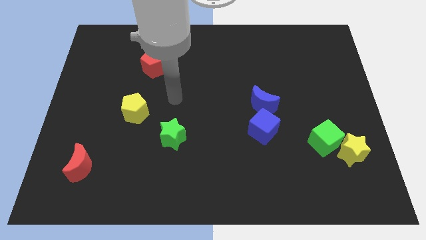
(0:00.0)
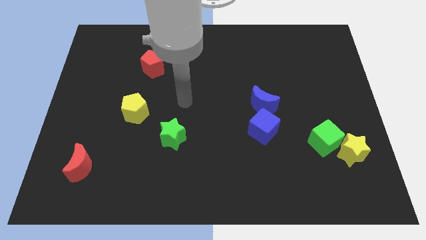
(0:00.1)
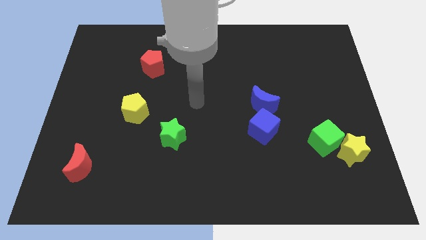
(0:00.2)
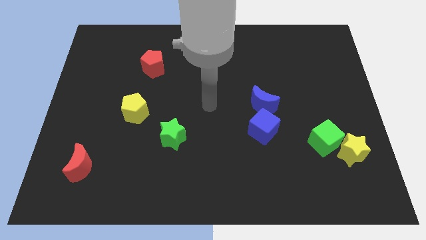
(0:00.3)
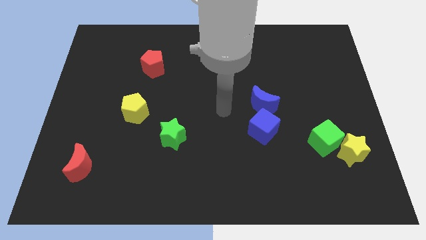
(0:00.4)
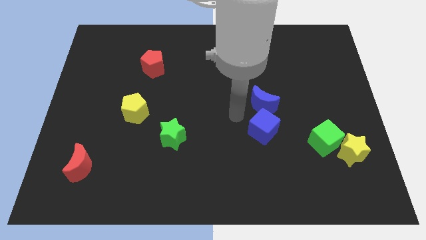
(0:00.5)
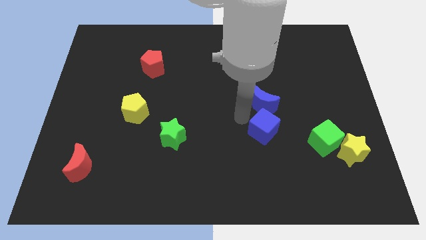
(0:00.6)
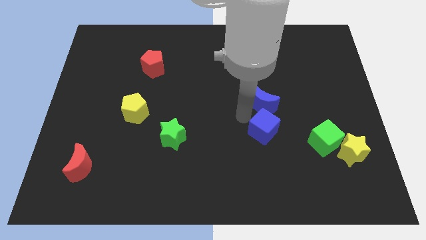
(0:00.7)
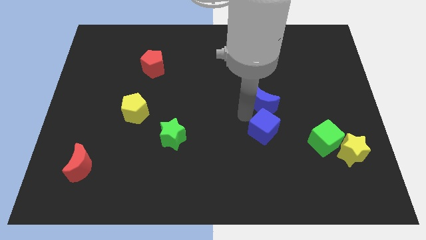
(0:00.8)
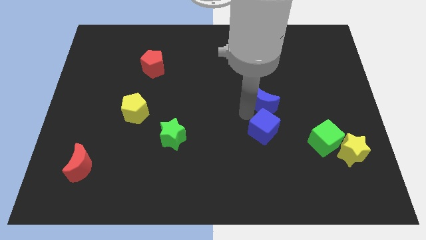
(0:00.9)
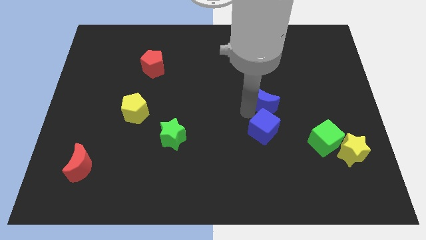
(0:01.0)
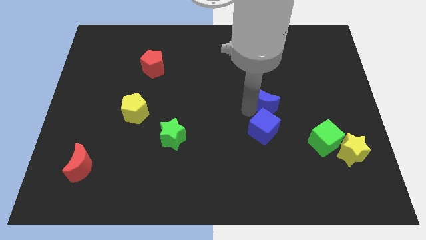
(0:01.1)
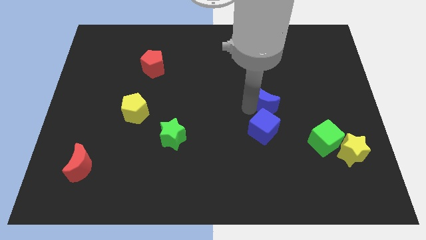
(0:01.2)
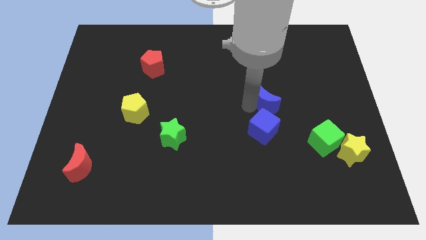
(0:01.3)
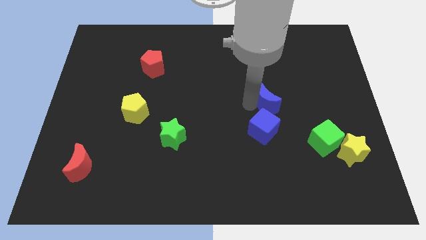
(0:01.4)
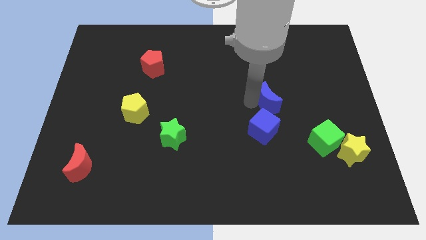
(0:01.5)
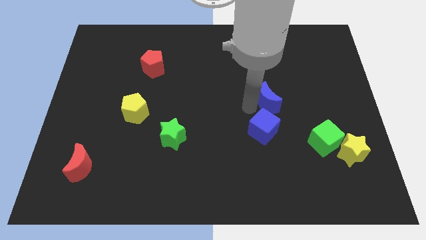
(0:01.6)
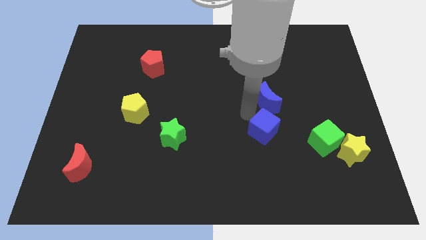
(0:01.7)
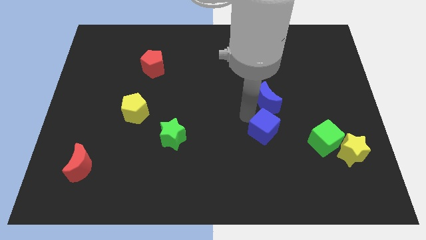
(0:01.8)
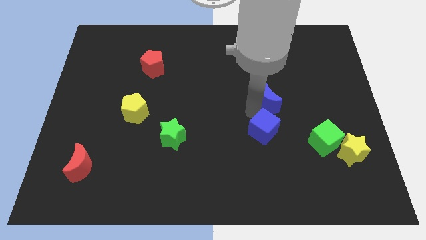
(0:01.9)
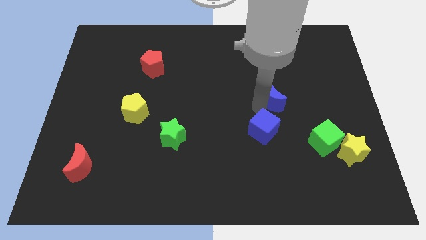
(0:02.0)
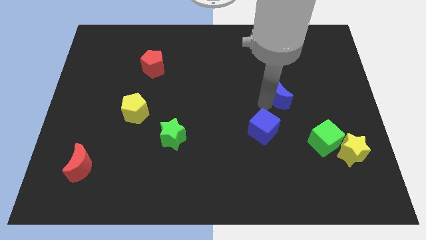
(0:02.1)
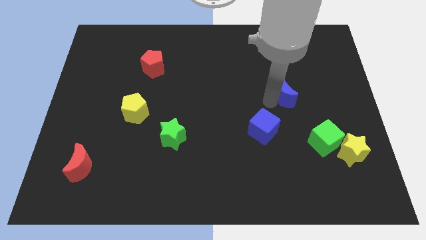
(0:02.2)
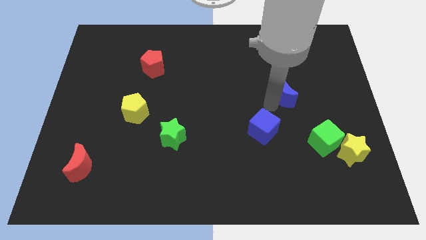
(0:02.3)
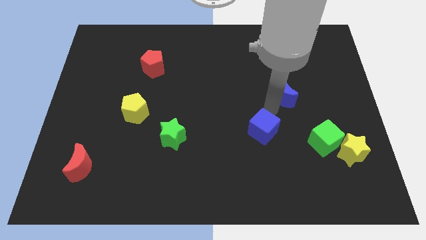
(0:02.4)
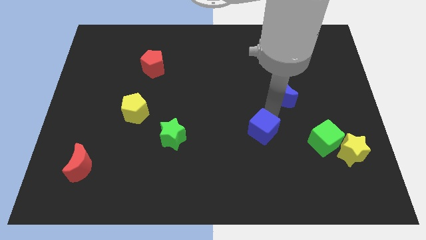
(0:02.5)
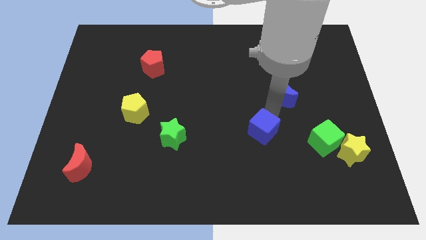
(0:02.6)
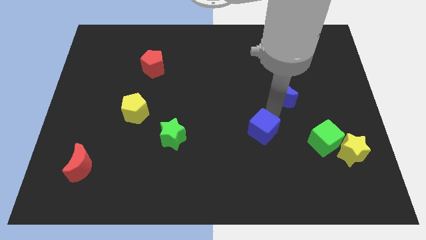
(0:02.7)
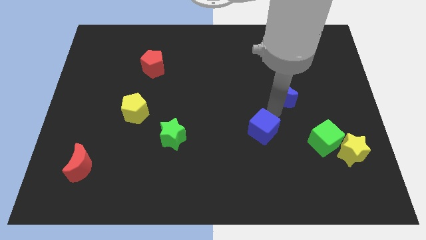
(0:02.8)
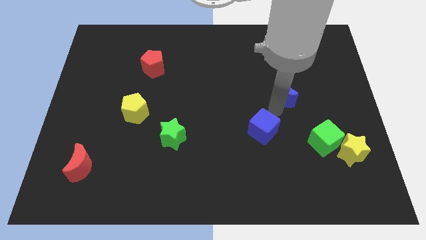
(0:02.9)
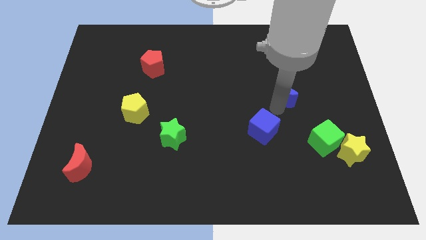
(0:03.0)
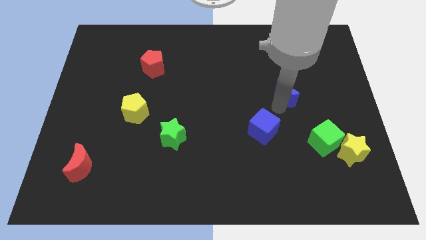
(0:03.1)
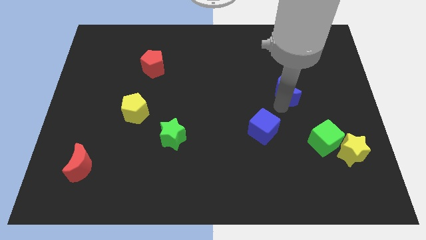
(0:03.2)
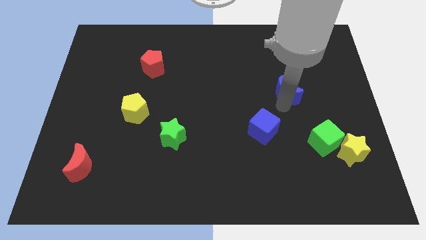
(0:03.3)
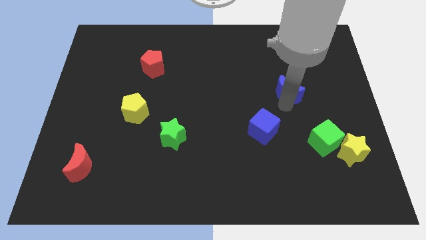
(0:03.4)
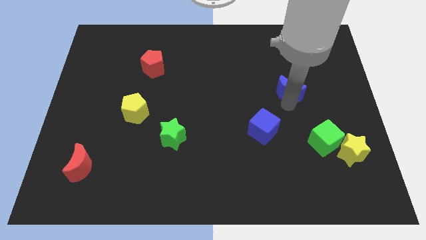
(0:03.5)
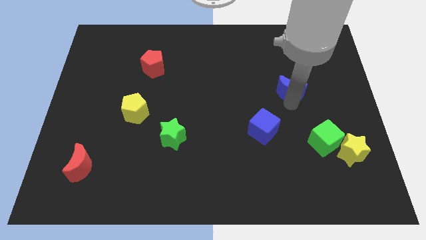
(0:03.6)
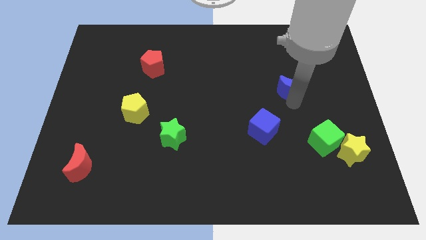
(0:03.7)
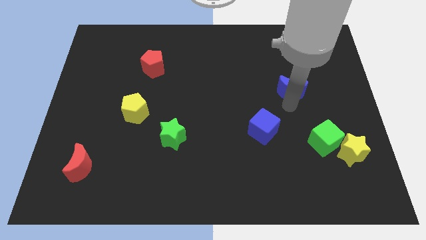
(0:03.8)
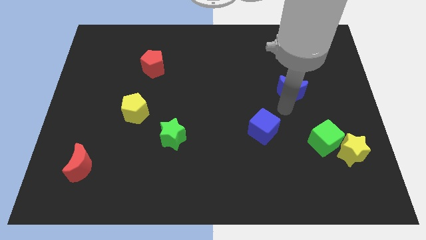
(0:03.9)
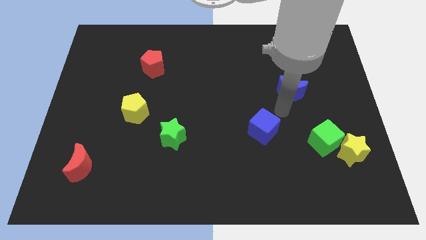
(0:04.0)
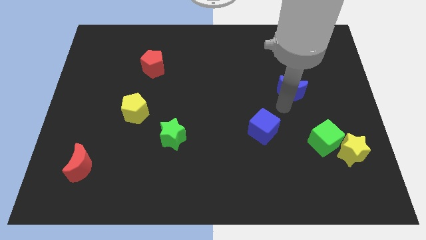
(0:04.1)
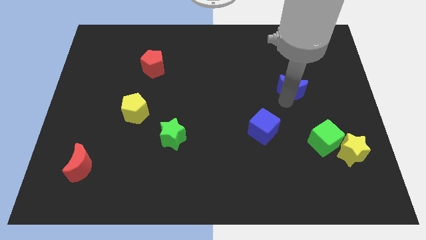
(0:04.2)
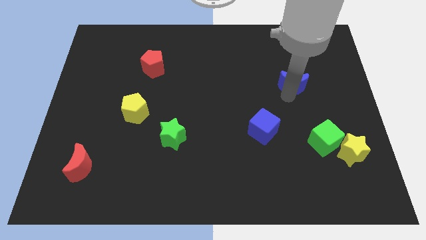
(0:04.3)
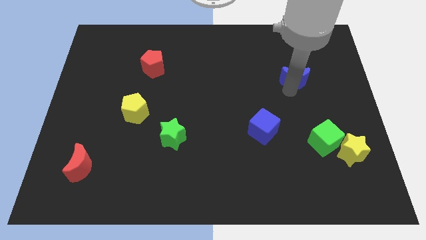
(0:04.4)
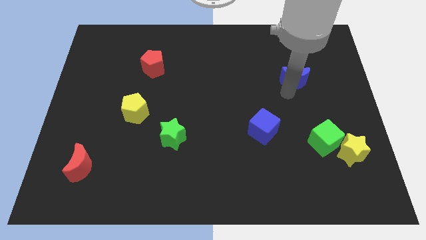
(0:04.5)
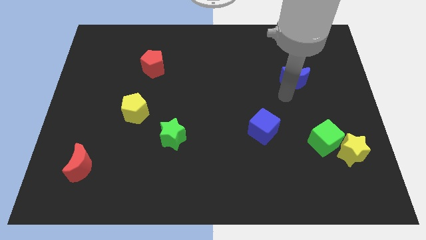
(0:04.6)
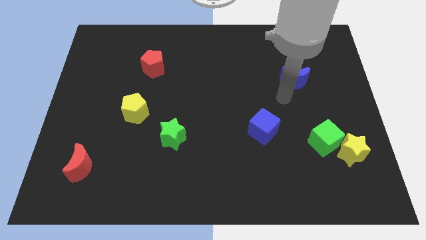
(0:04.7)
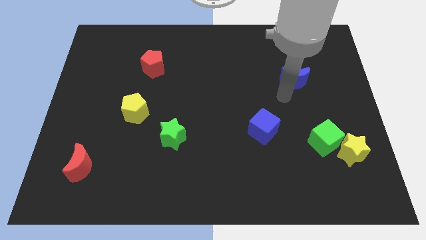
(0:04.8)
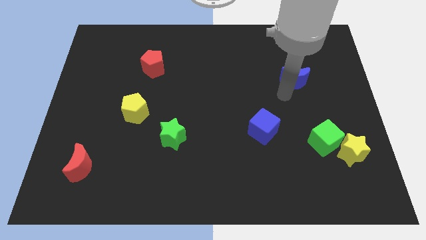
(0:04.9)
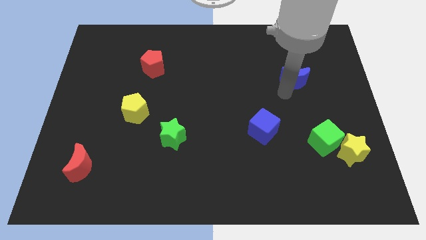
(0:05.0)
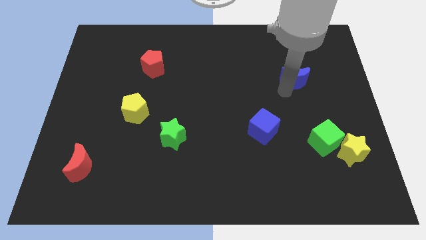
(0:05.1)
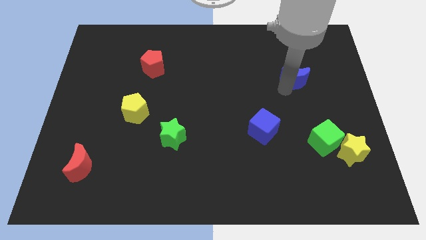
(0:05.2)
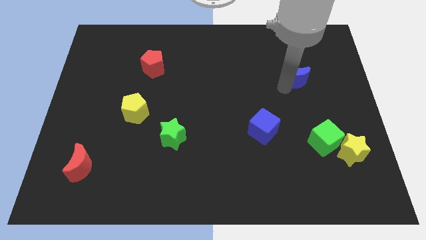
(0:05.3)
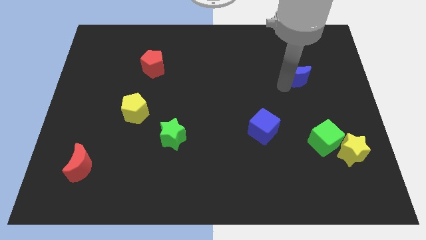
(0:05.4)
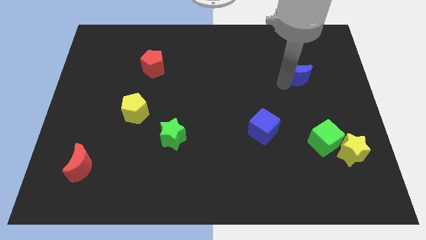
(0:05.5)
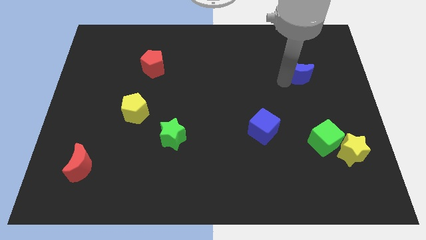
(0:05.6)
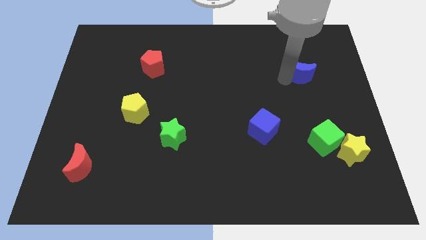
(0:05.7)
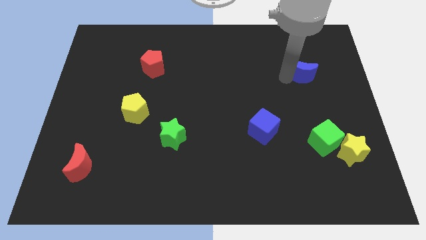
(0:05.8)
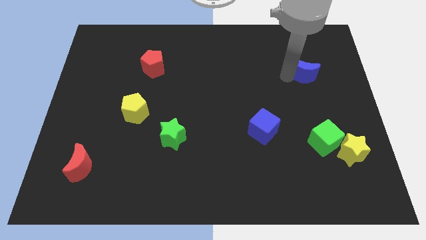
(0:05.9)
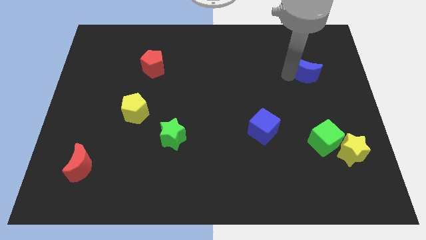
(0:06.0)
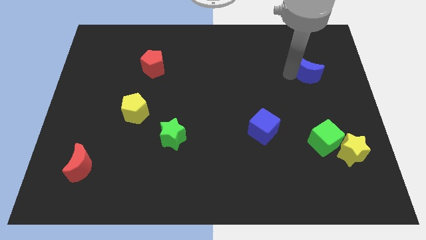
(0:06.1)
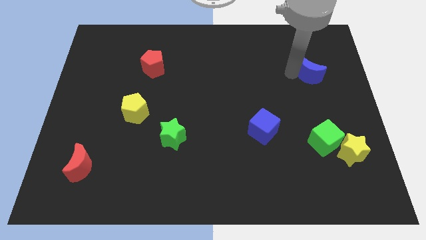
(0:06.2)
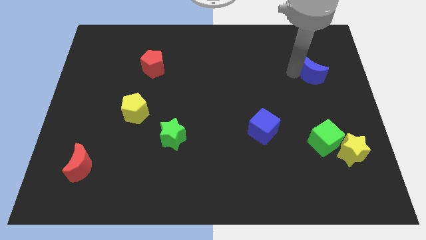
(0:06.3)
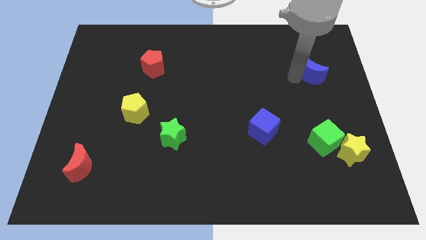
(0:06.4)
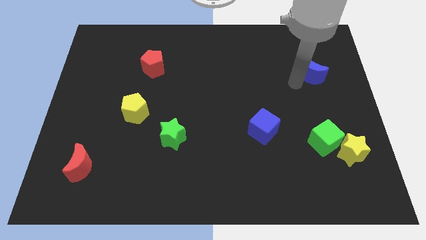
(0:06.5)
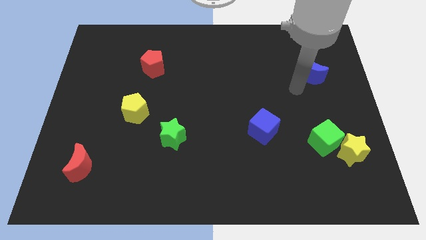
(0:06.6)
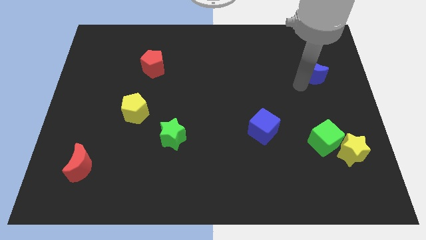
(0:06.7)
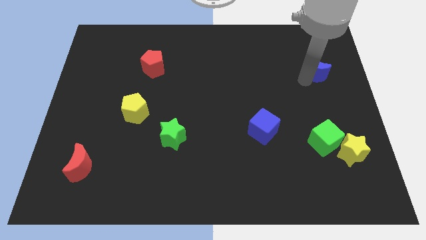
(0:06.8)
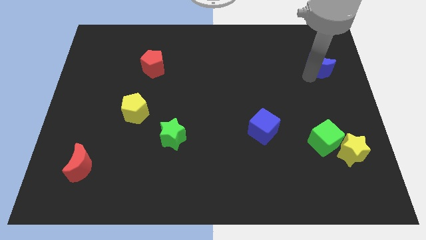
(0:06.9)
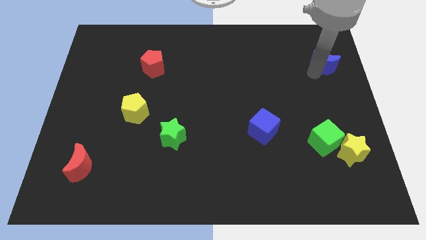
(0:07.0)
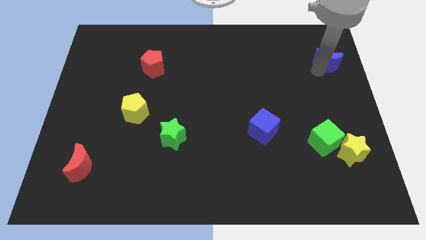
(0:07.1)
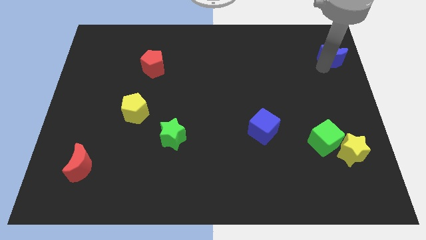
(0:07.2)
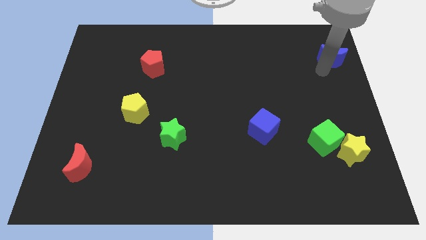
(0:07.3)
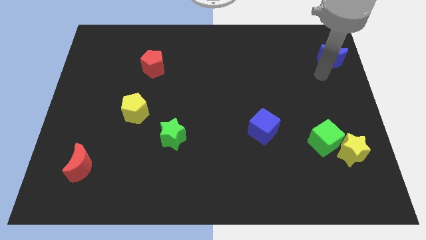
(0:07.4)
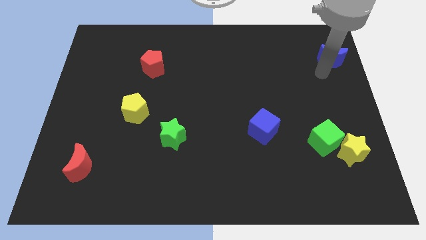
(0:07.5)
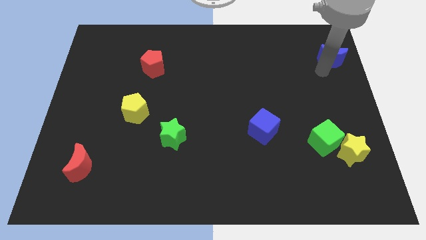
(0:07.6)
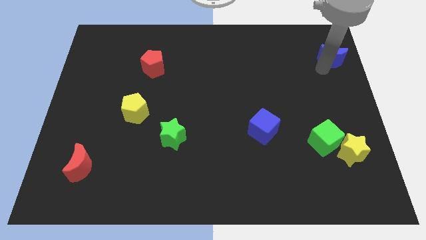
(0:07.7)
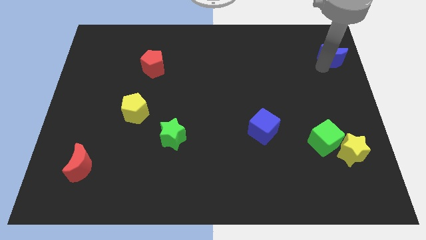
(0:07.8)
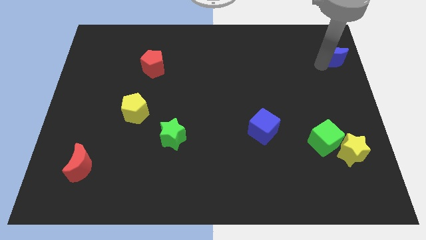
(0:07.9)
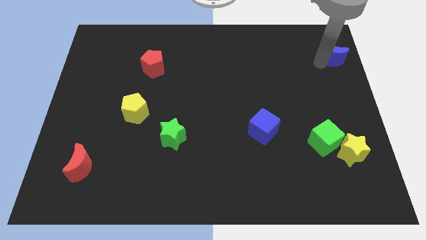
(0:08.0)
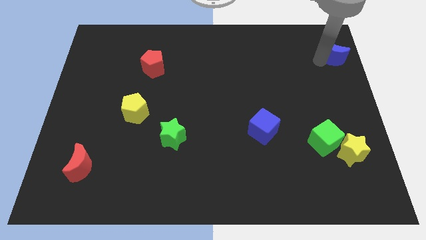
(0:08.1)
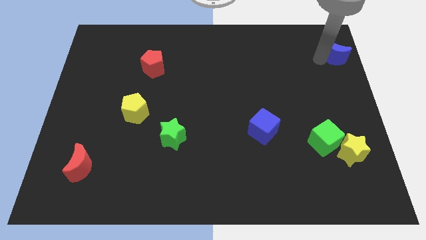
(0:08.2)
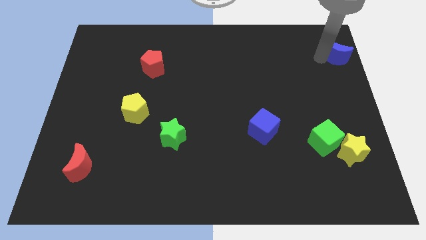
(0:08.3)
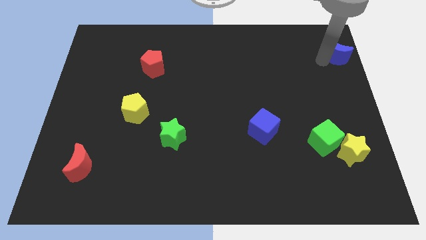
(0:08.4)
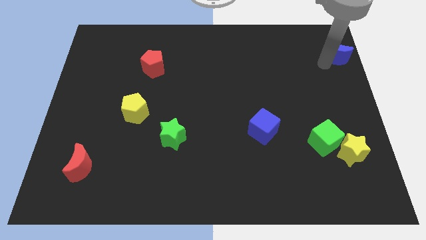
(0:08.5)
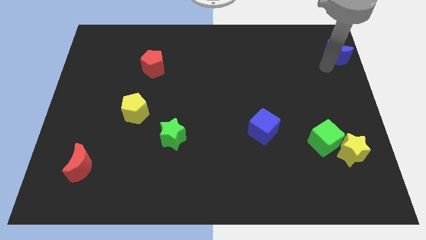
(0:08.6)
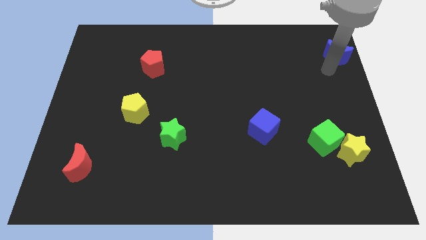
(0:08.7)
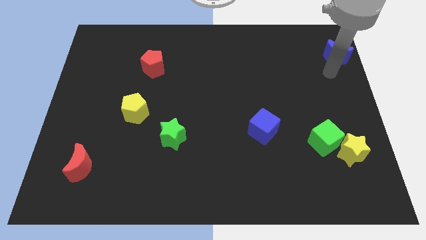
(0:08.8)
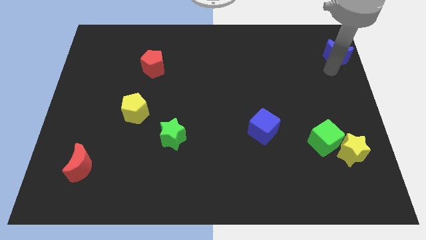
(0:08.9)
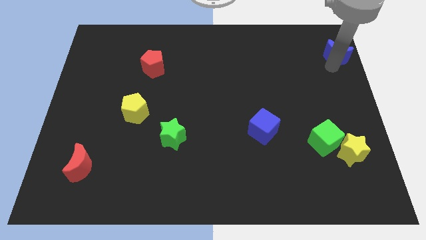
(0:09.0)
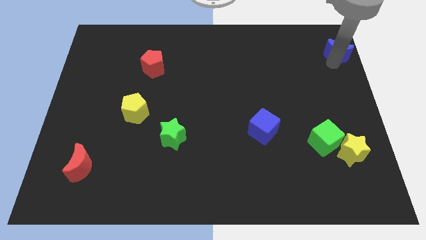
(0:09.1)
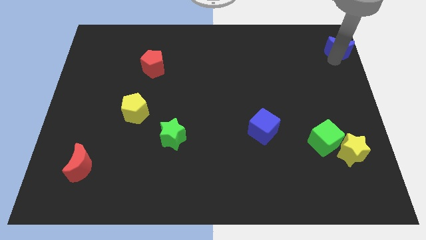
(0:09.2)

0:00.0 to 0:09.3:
slide the blue moon to the top right
